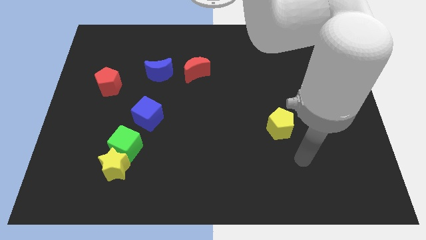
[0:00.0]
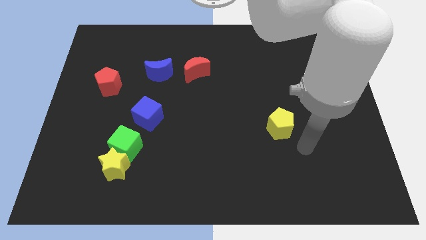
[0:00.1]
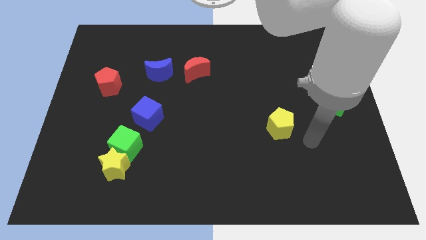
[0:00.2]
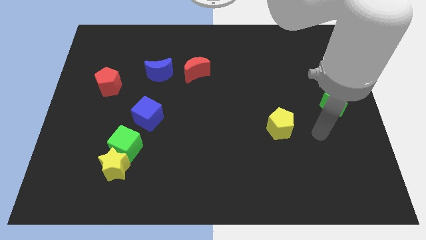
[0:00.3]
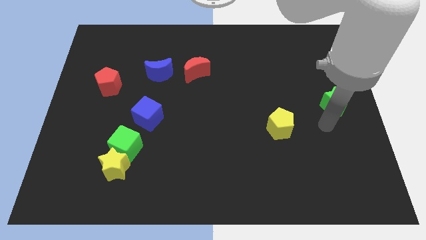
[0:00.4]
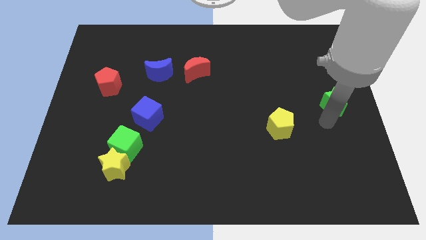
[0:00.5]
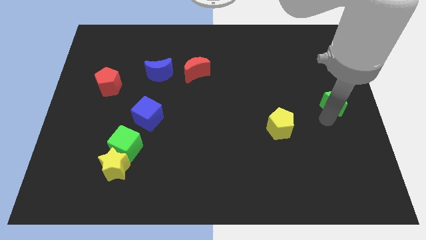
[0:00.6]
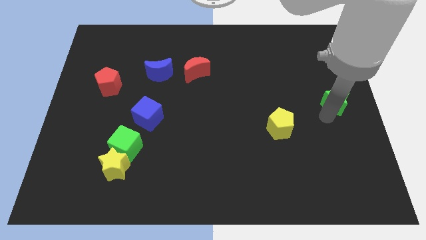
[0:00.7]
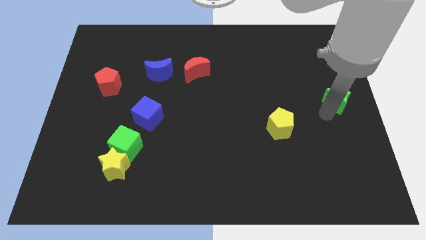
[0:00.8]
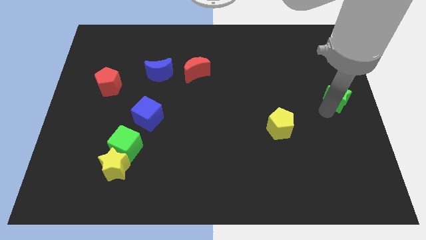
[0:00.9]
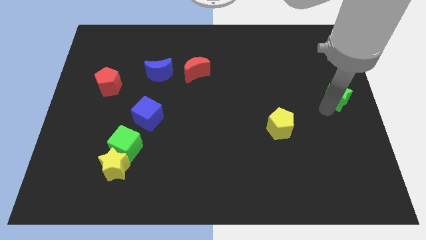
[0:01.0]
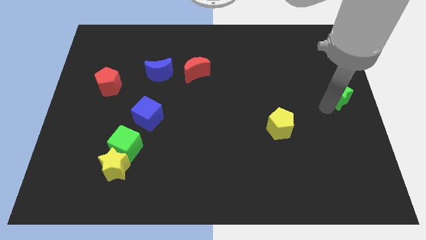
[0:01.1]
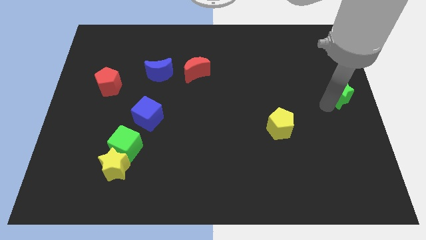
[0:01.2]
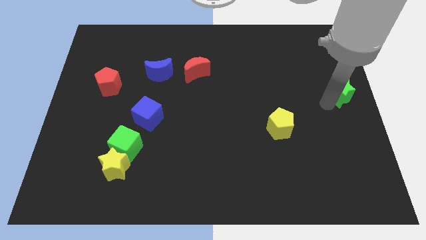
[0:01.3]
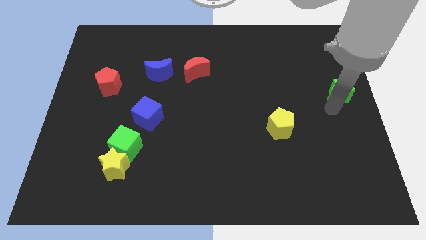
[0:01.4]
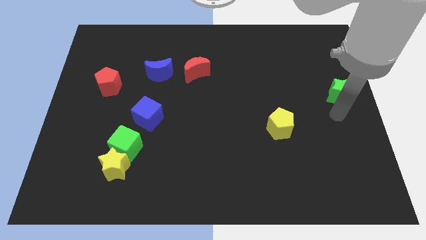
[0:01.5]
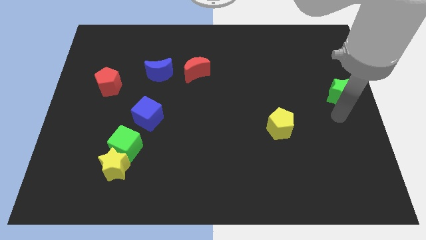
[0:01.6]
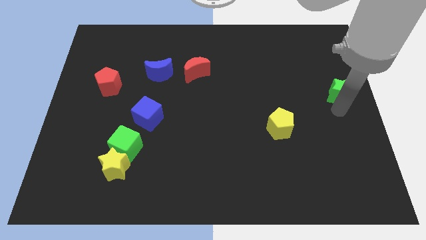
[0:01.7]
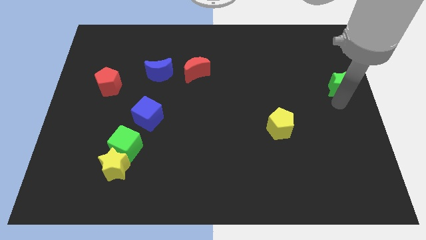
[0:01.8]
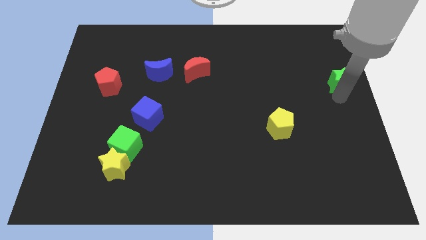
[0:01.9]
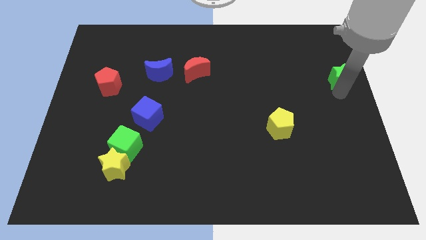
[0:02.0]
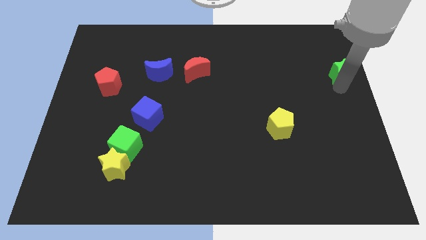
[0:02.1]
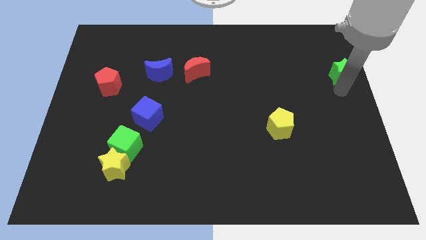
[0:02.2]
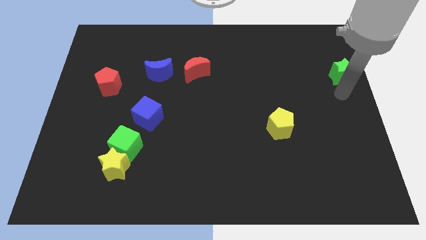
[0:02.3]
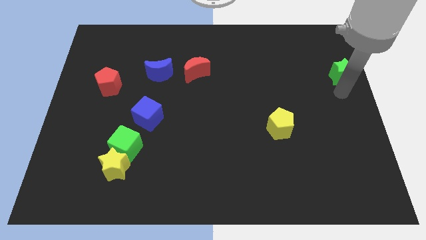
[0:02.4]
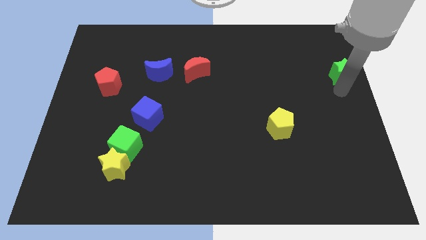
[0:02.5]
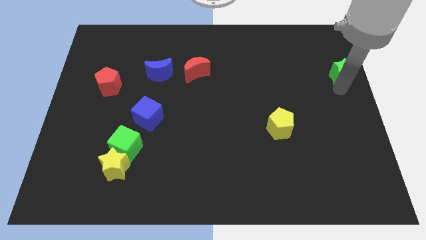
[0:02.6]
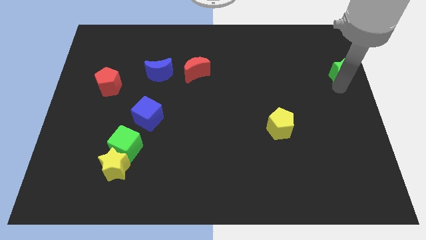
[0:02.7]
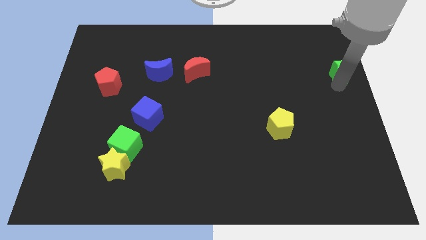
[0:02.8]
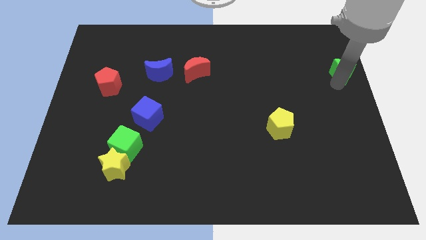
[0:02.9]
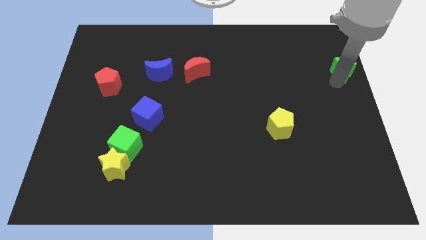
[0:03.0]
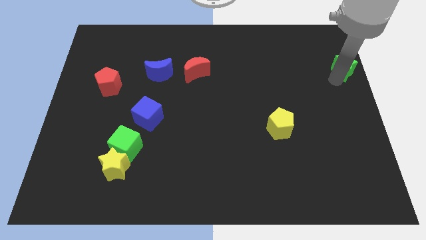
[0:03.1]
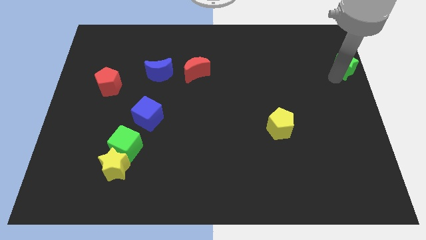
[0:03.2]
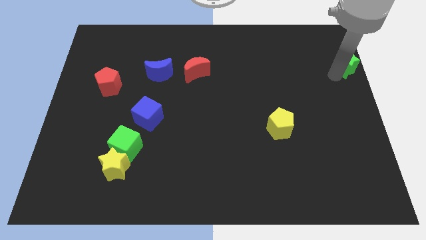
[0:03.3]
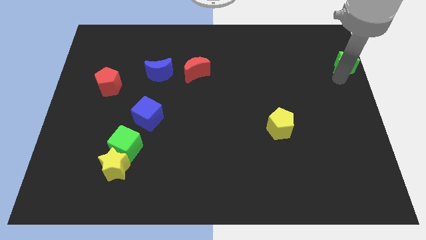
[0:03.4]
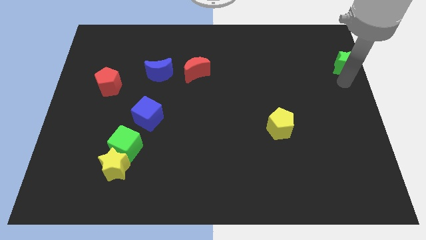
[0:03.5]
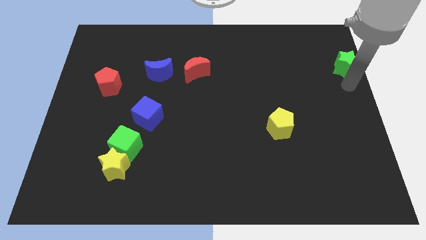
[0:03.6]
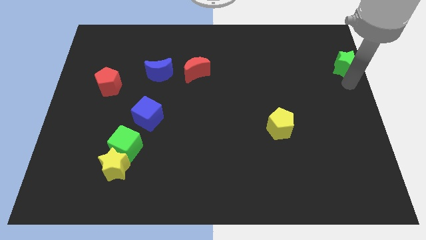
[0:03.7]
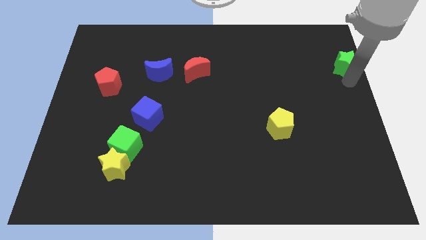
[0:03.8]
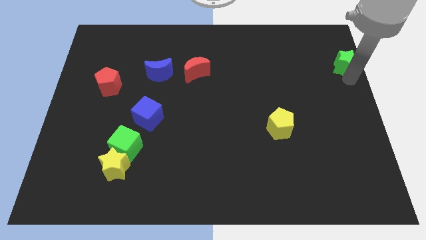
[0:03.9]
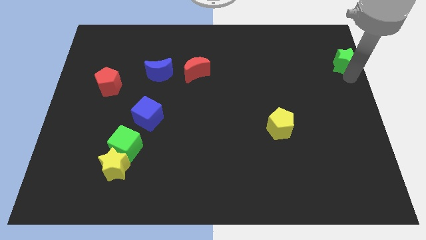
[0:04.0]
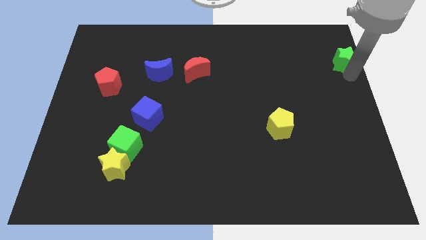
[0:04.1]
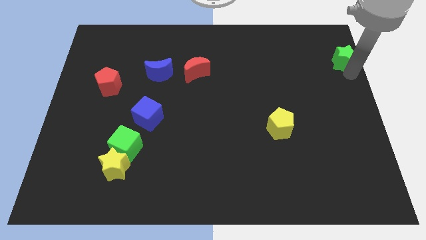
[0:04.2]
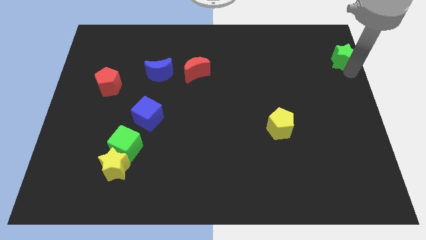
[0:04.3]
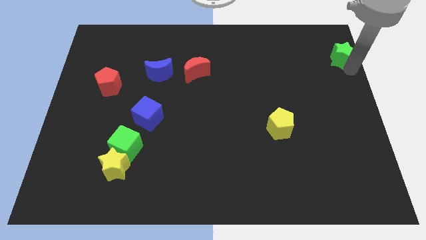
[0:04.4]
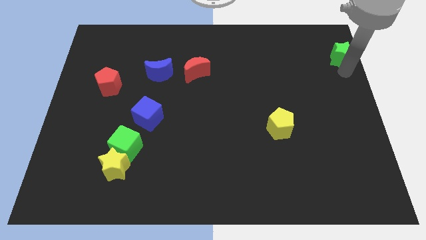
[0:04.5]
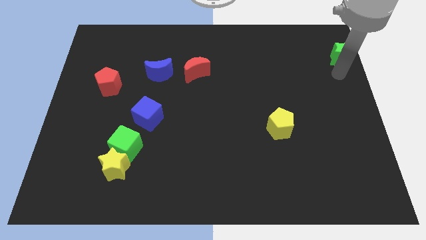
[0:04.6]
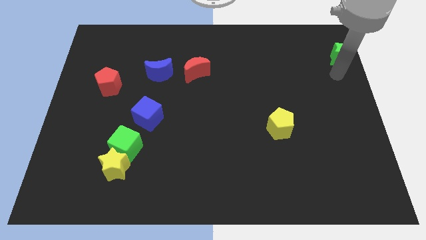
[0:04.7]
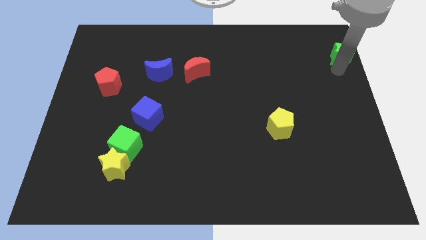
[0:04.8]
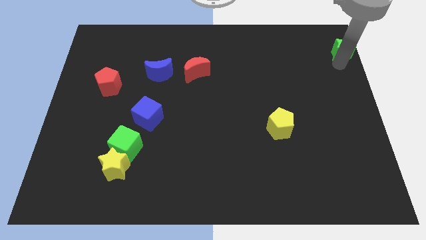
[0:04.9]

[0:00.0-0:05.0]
move the green star to the top right of the board

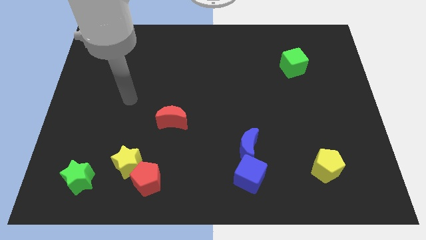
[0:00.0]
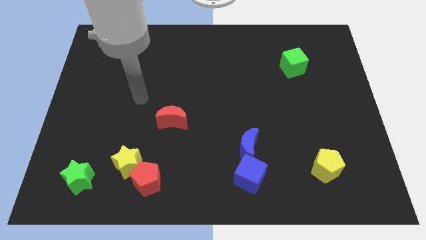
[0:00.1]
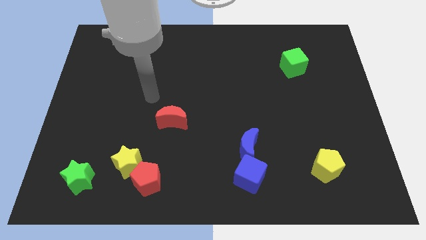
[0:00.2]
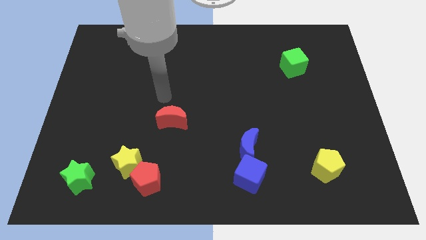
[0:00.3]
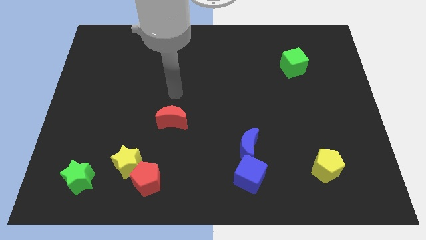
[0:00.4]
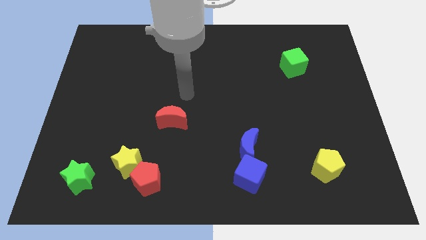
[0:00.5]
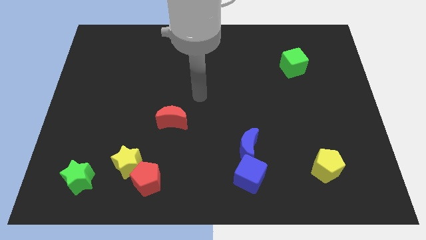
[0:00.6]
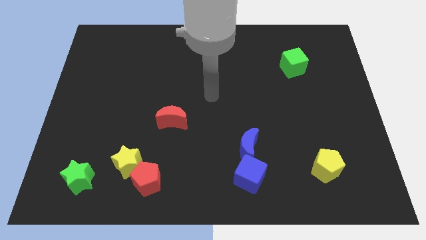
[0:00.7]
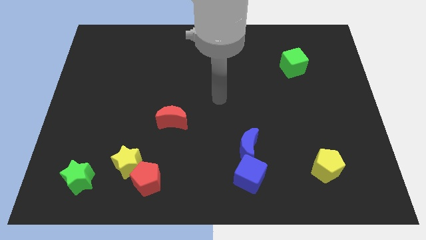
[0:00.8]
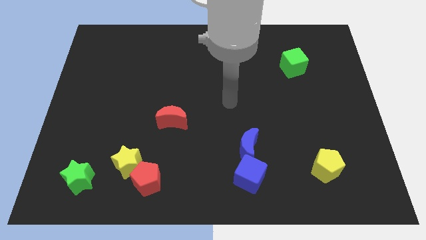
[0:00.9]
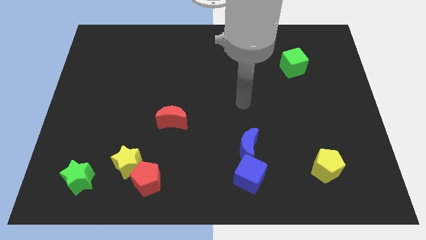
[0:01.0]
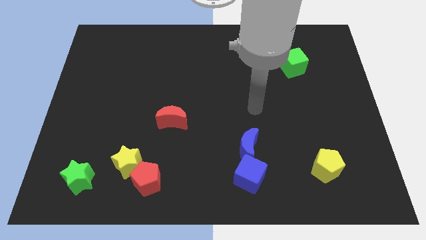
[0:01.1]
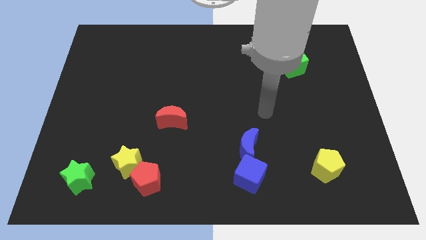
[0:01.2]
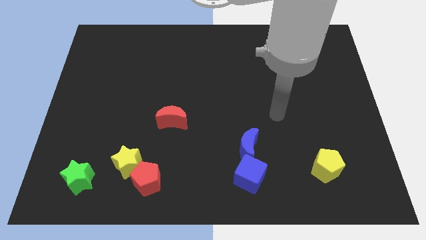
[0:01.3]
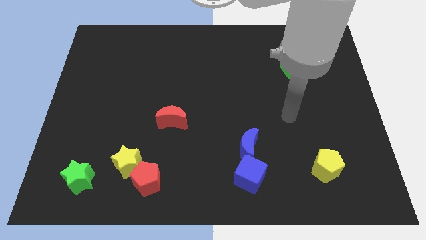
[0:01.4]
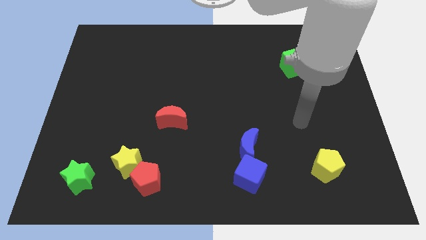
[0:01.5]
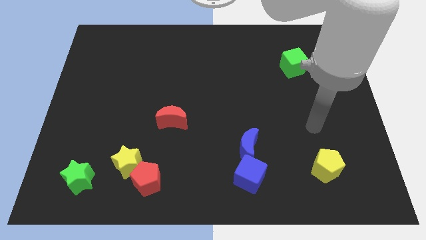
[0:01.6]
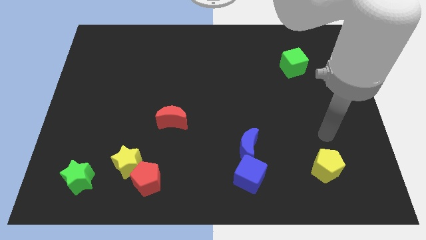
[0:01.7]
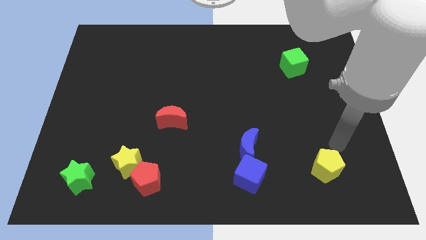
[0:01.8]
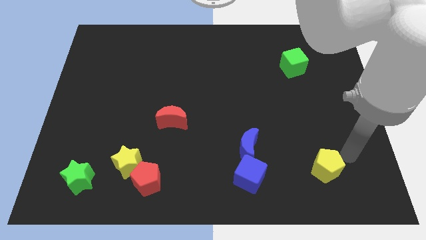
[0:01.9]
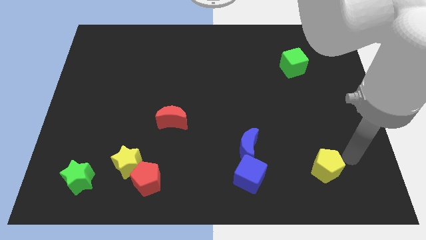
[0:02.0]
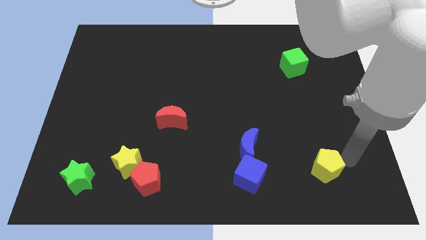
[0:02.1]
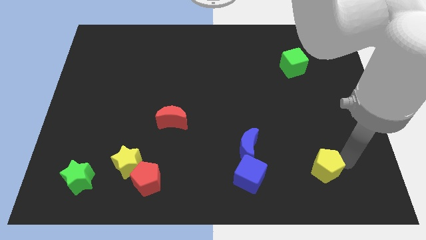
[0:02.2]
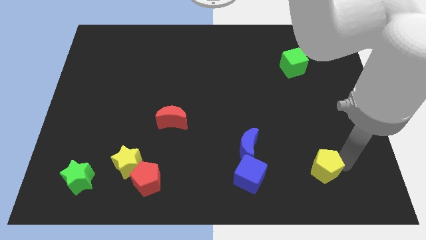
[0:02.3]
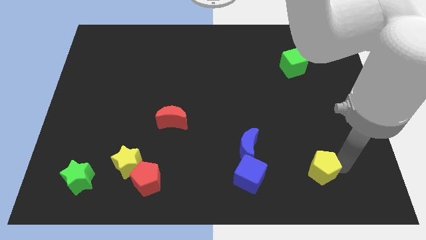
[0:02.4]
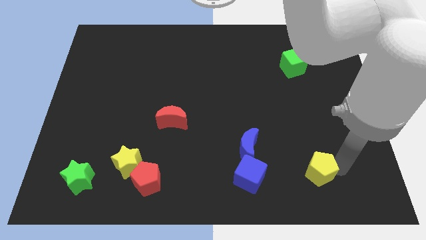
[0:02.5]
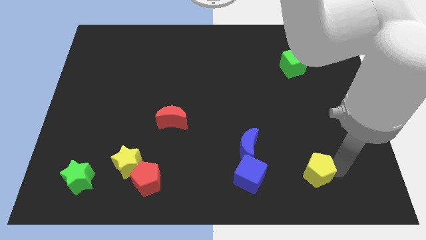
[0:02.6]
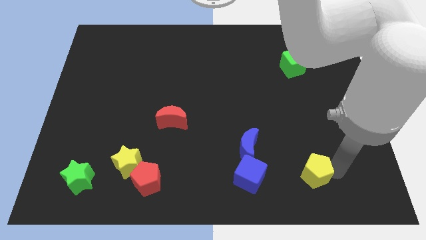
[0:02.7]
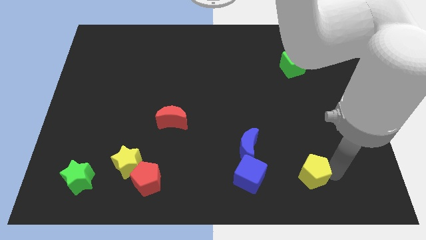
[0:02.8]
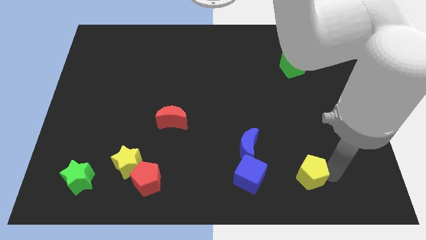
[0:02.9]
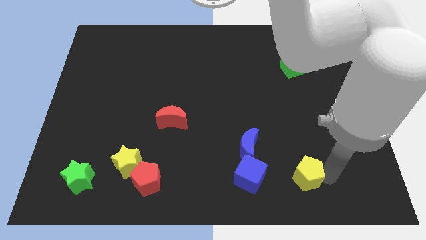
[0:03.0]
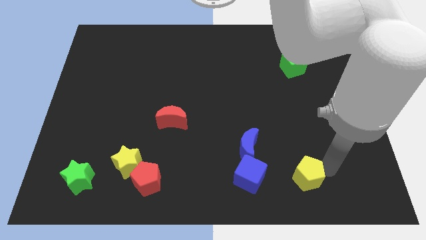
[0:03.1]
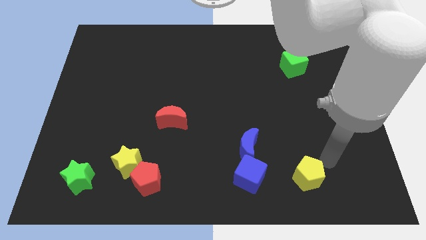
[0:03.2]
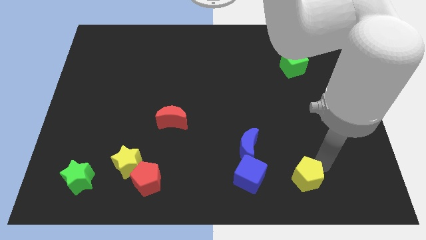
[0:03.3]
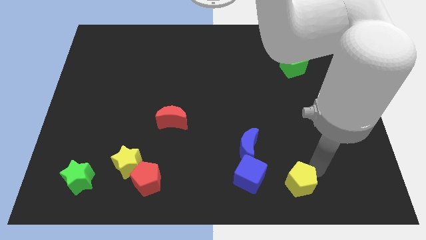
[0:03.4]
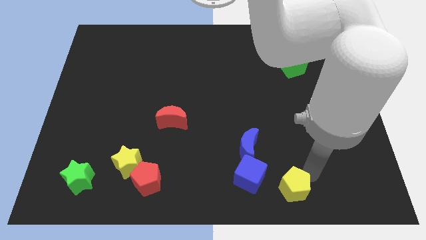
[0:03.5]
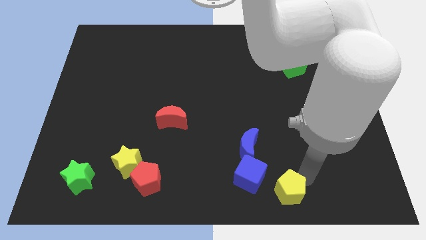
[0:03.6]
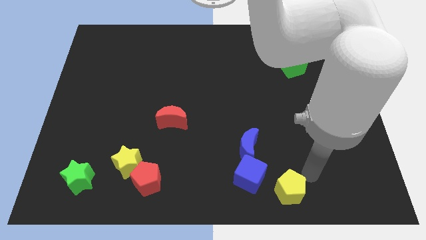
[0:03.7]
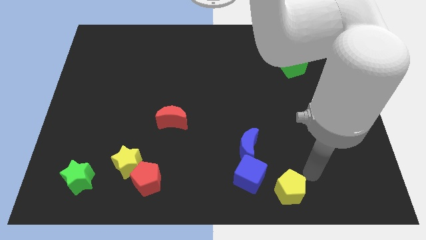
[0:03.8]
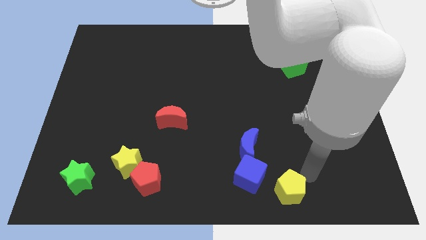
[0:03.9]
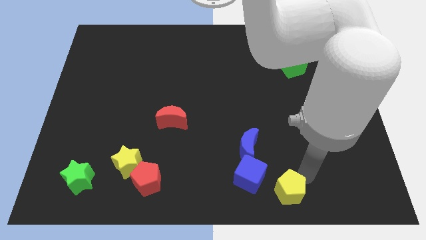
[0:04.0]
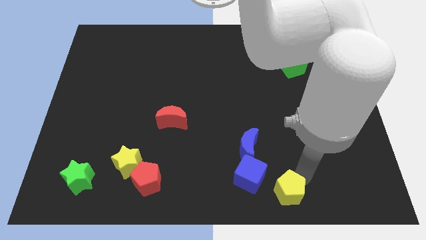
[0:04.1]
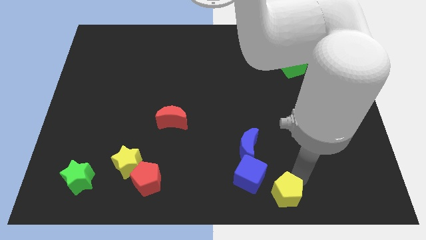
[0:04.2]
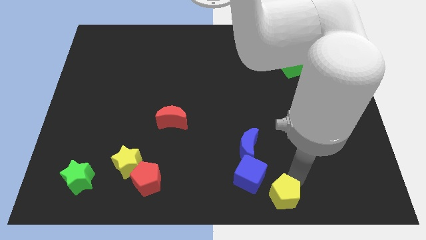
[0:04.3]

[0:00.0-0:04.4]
put the yellow pentagon to the bottom side
